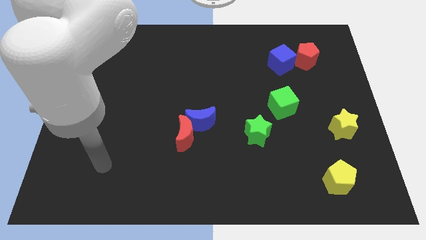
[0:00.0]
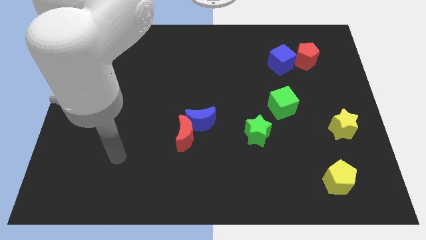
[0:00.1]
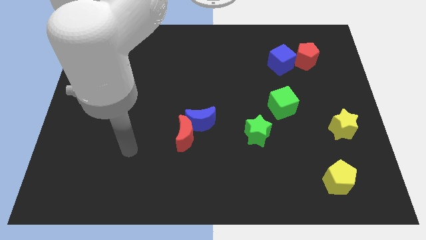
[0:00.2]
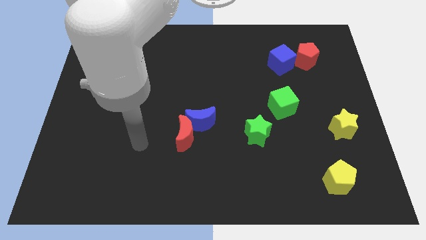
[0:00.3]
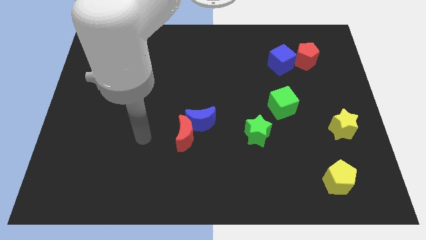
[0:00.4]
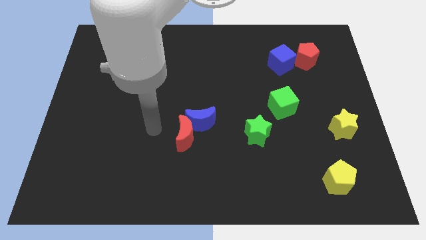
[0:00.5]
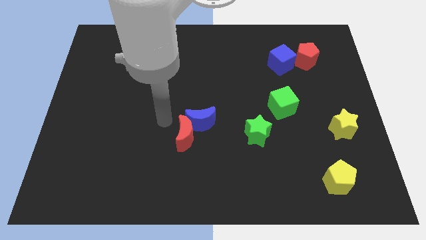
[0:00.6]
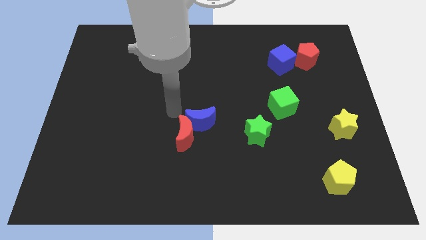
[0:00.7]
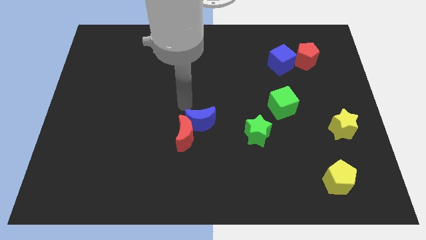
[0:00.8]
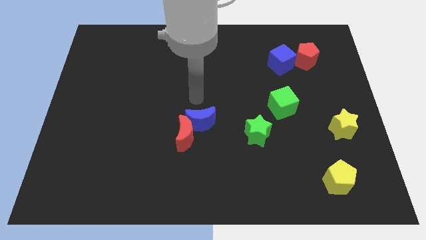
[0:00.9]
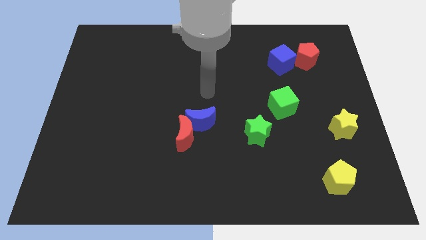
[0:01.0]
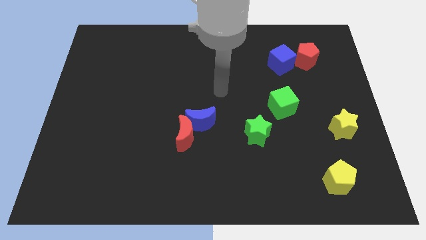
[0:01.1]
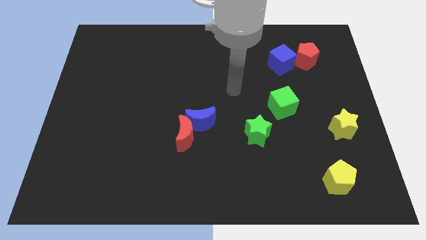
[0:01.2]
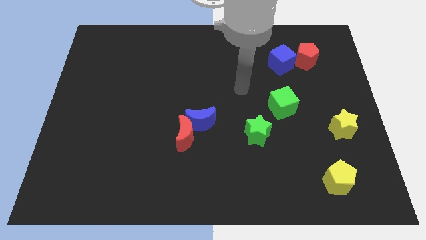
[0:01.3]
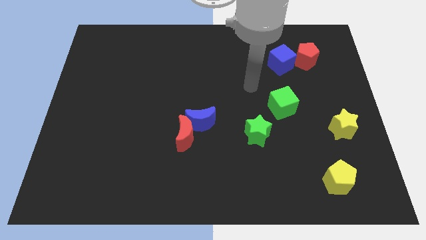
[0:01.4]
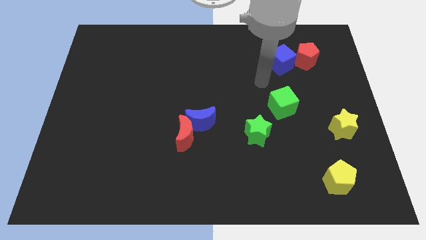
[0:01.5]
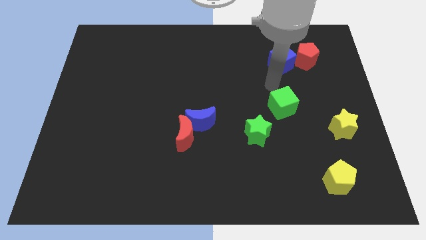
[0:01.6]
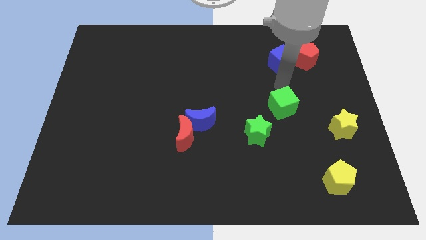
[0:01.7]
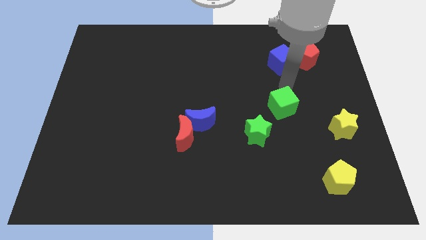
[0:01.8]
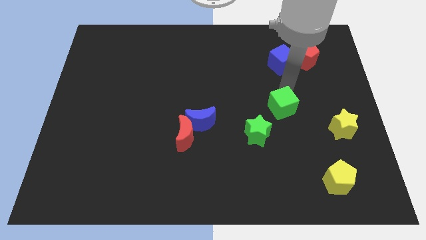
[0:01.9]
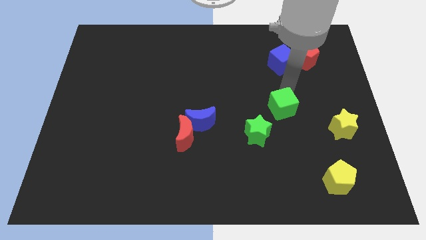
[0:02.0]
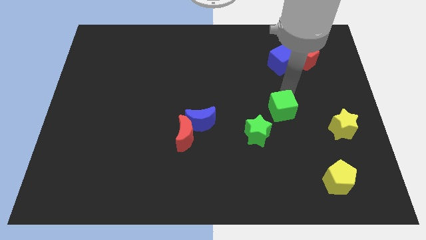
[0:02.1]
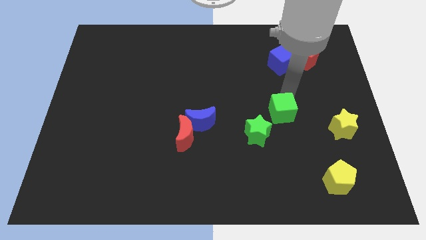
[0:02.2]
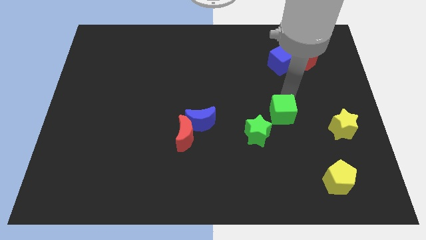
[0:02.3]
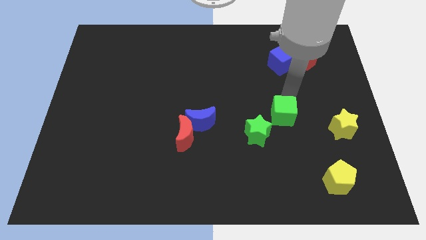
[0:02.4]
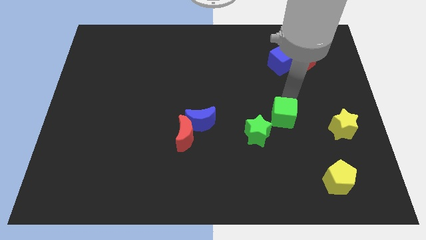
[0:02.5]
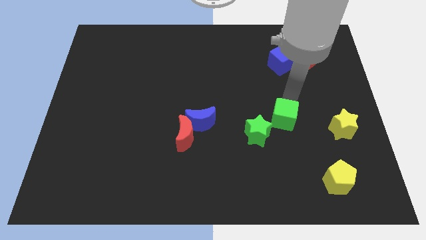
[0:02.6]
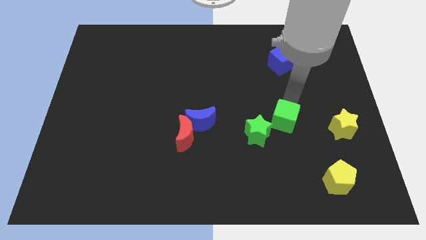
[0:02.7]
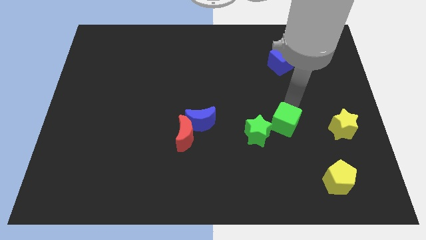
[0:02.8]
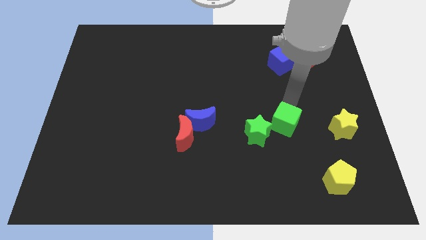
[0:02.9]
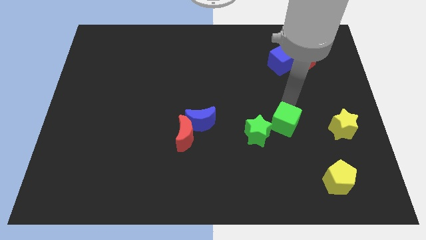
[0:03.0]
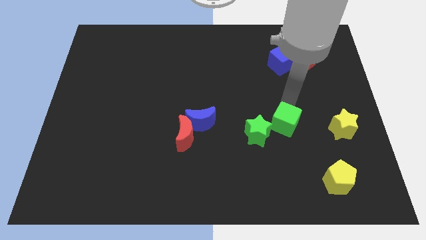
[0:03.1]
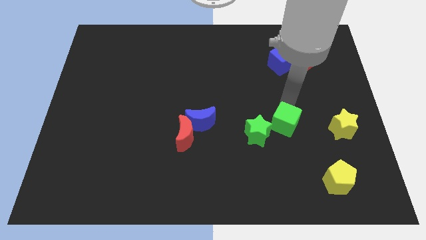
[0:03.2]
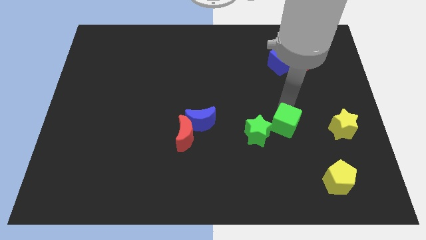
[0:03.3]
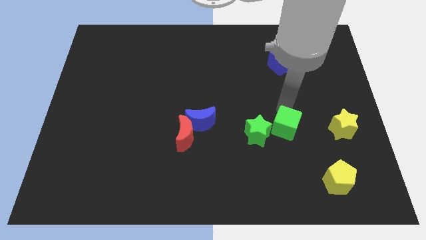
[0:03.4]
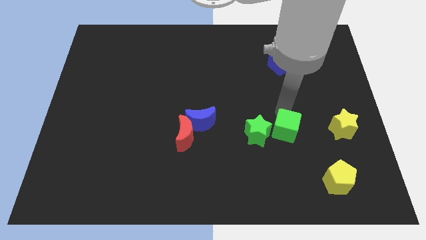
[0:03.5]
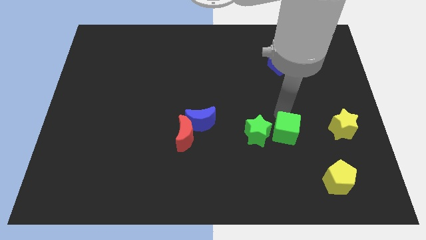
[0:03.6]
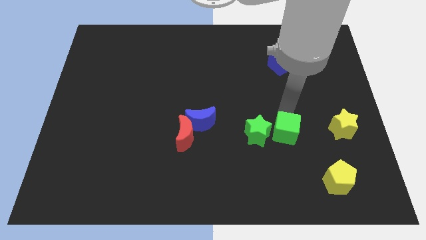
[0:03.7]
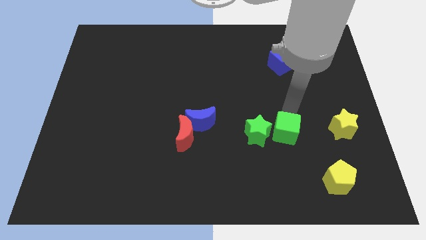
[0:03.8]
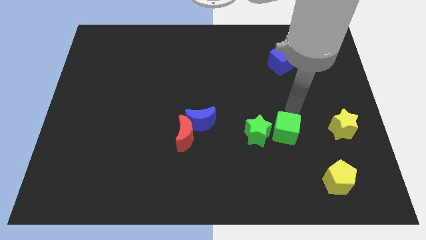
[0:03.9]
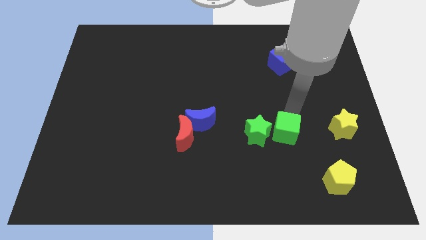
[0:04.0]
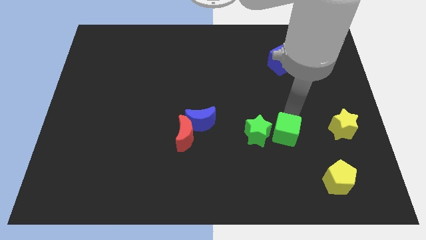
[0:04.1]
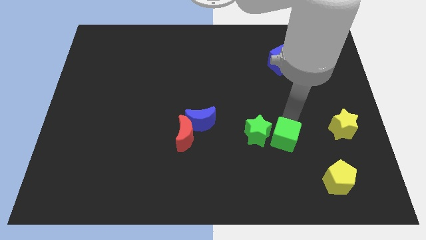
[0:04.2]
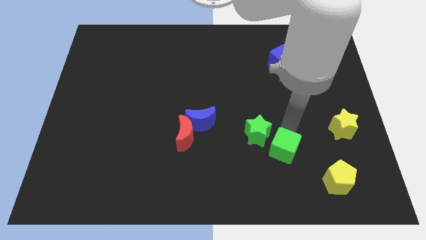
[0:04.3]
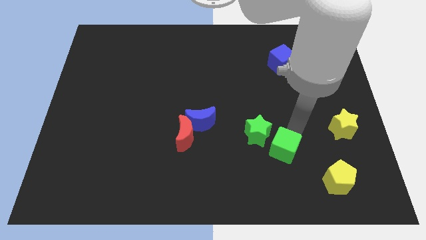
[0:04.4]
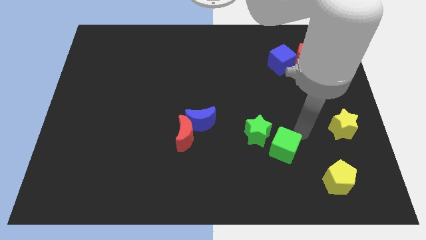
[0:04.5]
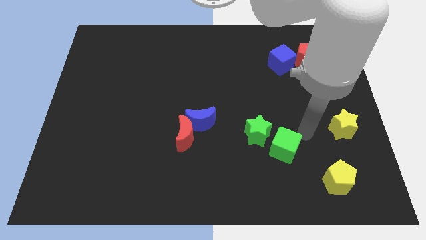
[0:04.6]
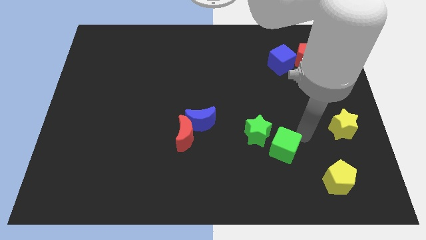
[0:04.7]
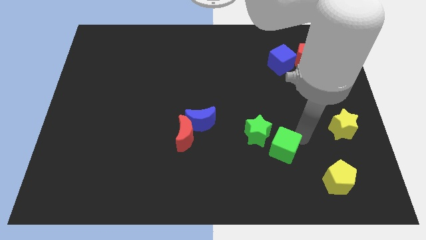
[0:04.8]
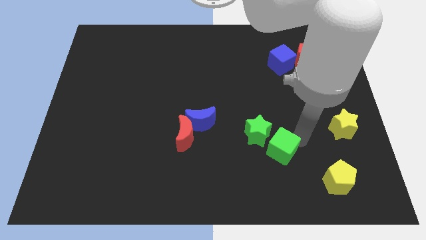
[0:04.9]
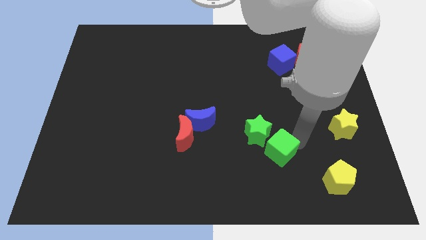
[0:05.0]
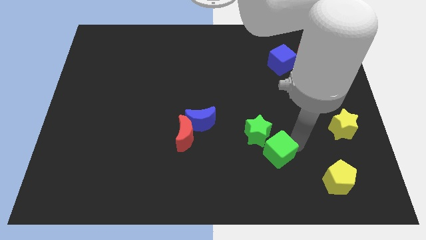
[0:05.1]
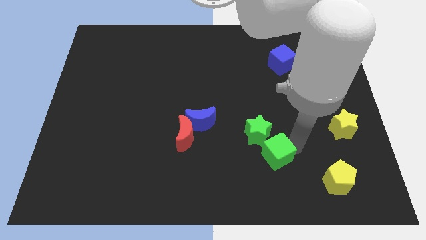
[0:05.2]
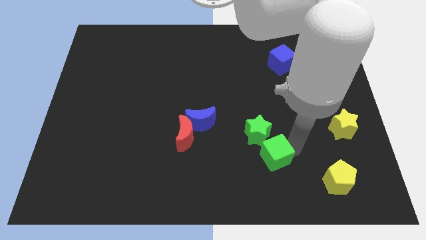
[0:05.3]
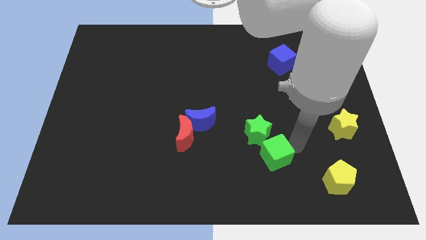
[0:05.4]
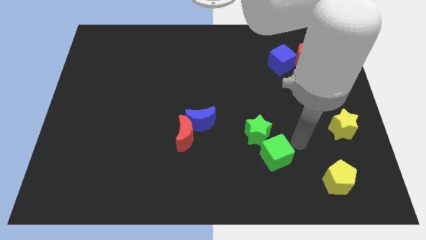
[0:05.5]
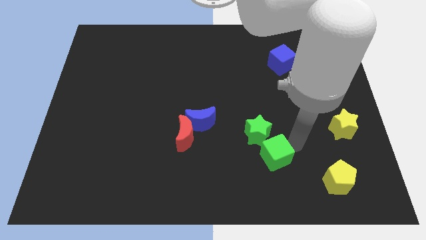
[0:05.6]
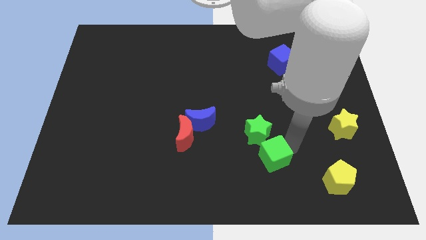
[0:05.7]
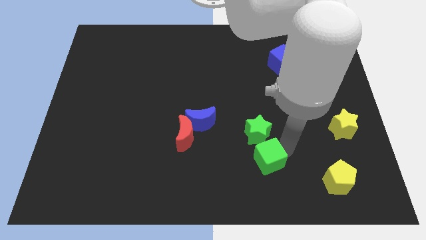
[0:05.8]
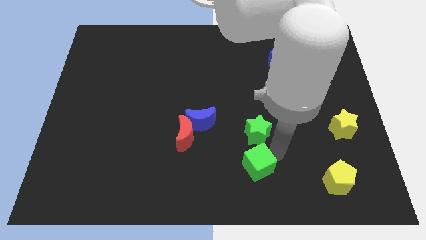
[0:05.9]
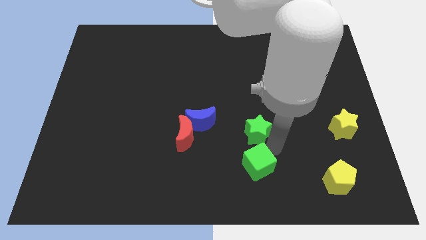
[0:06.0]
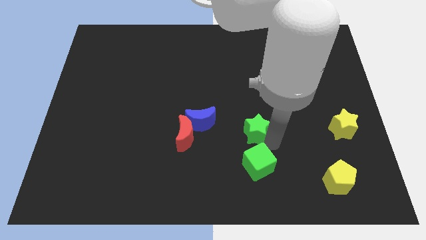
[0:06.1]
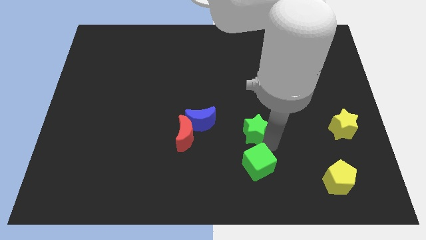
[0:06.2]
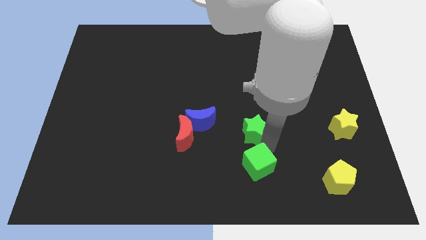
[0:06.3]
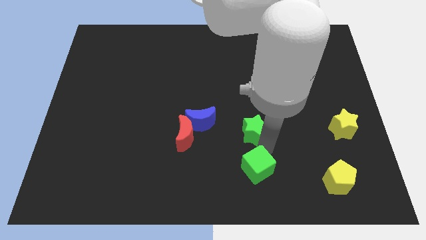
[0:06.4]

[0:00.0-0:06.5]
move the green cube to the bottom side

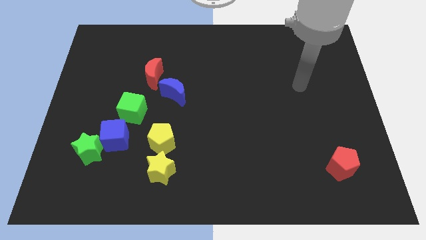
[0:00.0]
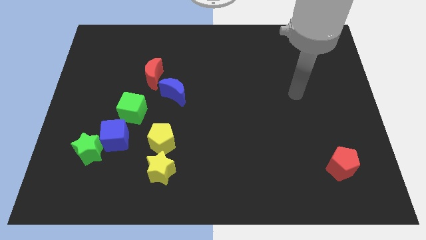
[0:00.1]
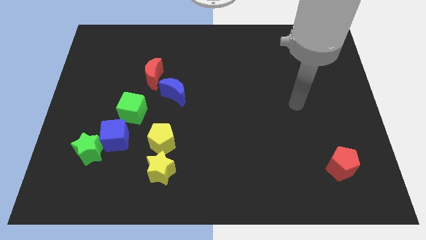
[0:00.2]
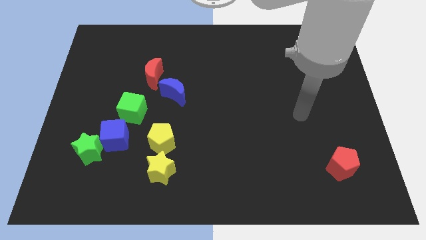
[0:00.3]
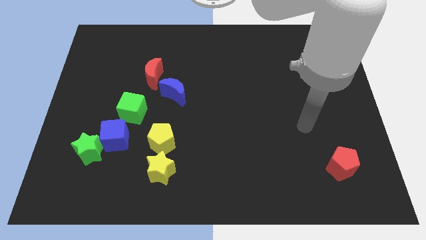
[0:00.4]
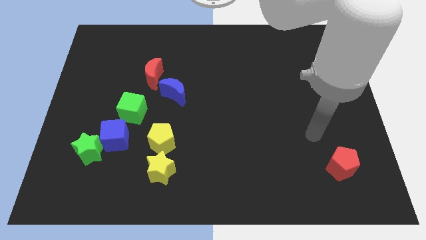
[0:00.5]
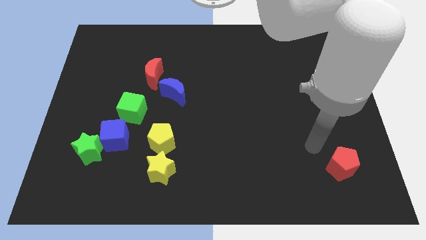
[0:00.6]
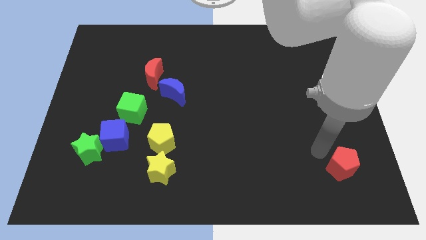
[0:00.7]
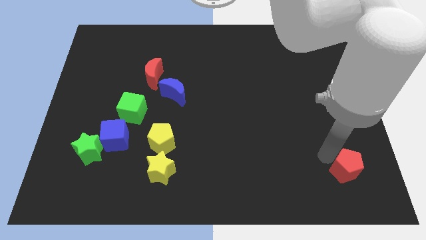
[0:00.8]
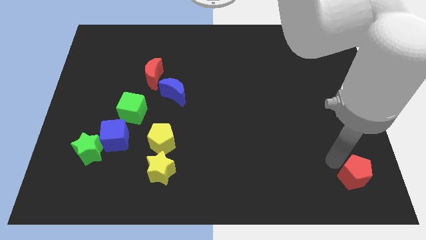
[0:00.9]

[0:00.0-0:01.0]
push the red pentagon to the bottom right corner

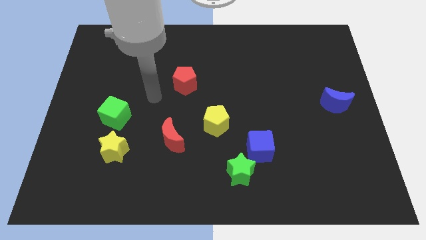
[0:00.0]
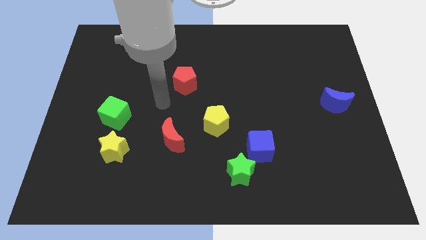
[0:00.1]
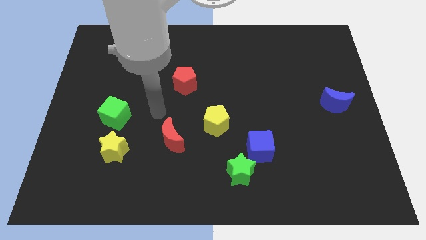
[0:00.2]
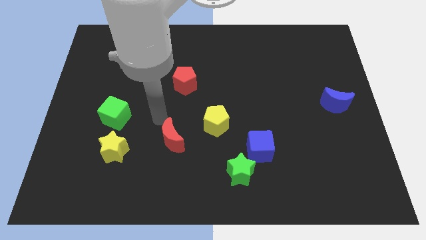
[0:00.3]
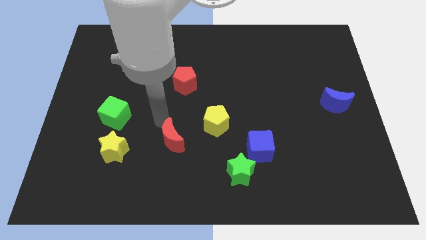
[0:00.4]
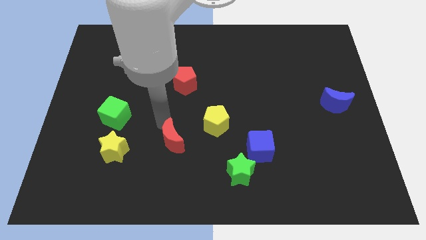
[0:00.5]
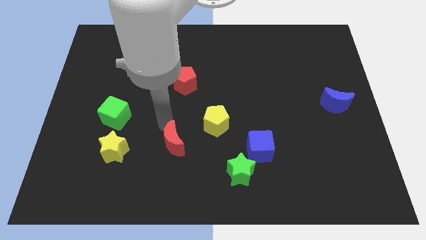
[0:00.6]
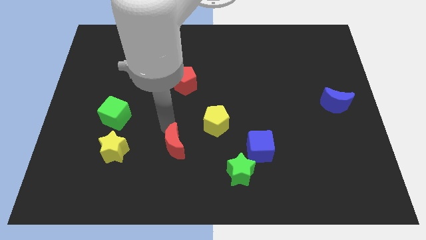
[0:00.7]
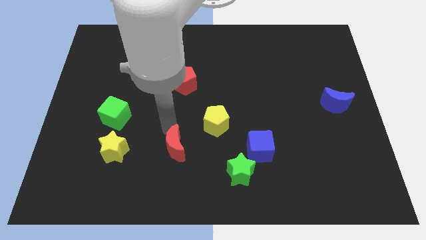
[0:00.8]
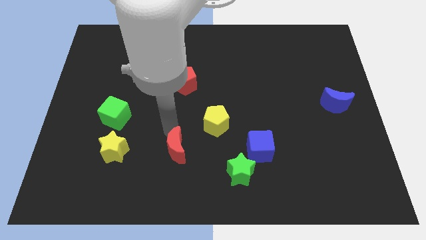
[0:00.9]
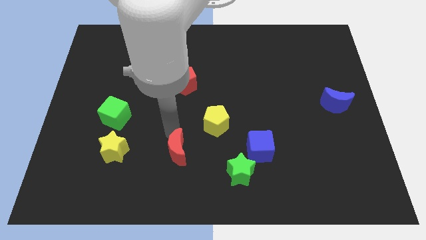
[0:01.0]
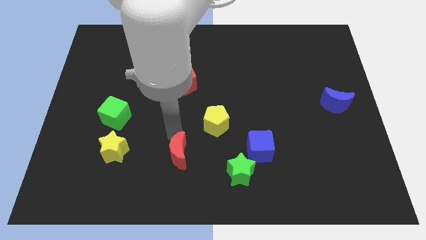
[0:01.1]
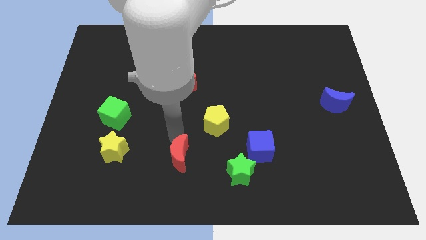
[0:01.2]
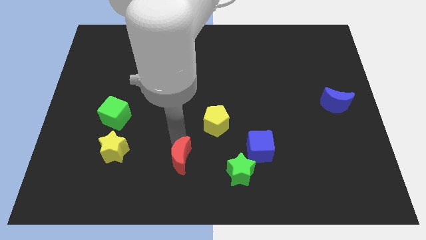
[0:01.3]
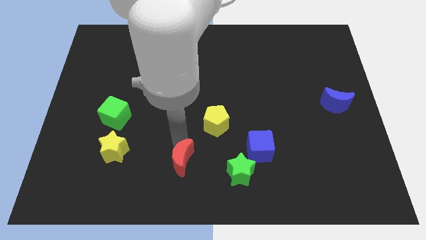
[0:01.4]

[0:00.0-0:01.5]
slide the red moon to the bottom side
